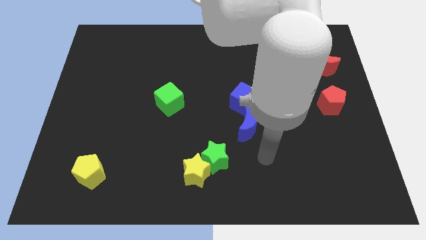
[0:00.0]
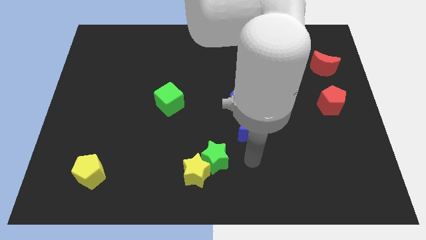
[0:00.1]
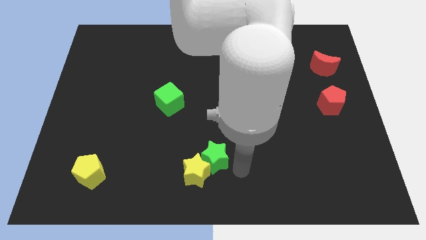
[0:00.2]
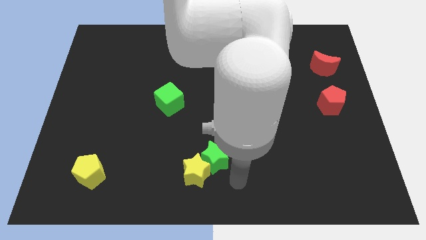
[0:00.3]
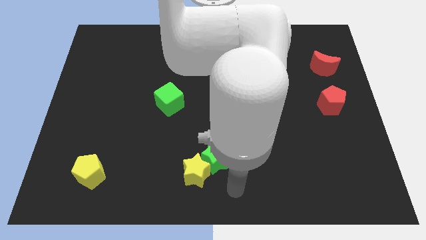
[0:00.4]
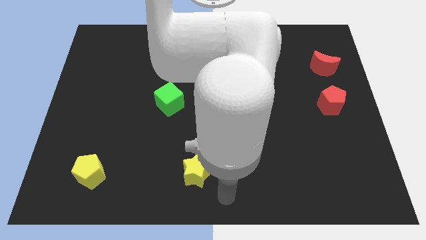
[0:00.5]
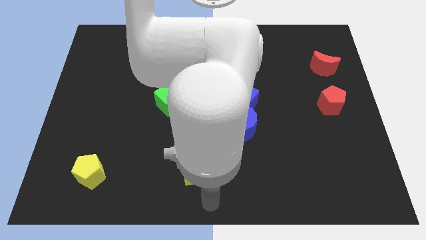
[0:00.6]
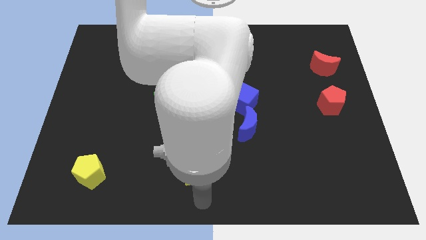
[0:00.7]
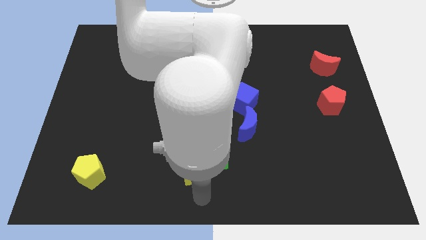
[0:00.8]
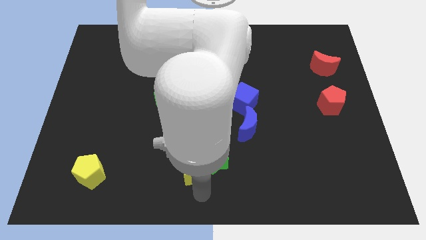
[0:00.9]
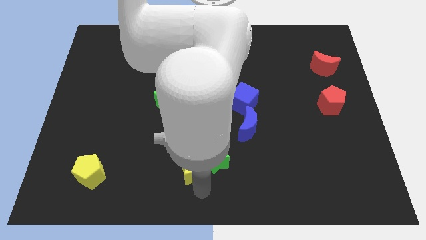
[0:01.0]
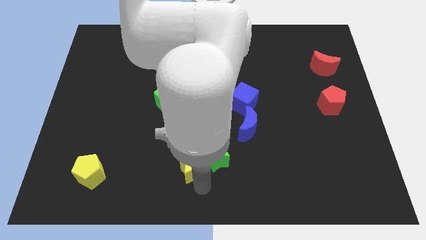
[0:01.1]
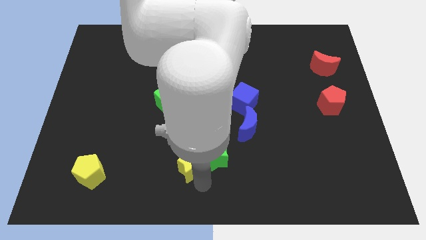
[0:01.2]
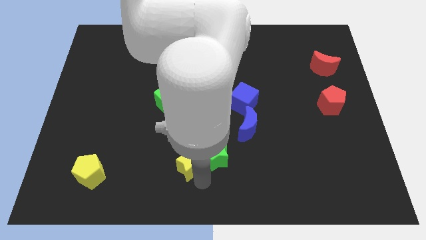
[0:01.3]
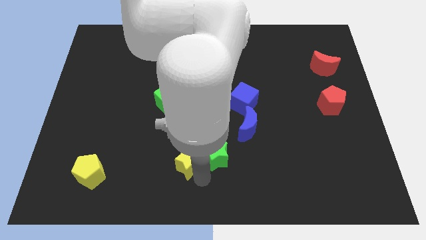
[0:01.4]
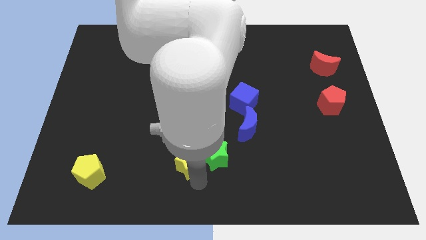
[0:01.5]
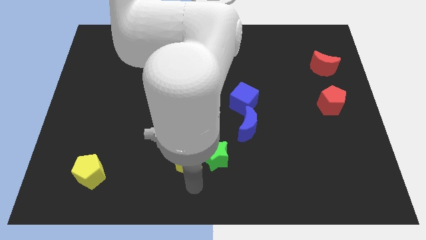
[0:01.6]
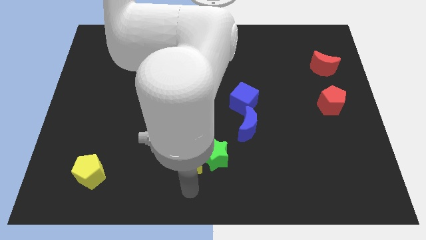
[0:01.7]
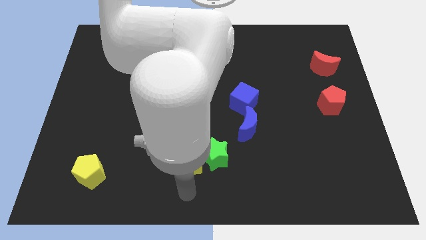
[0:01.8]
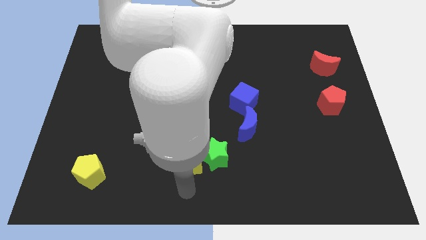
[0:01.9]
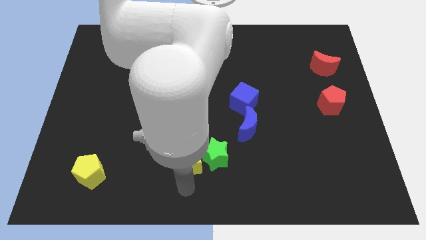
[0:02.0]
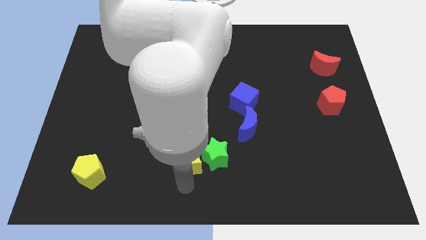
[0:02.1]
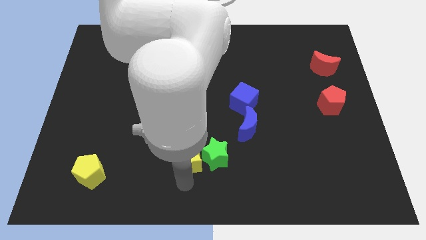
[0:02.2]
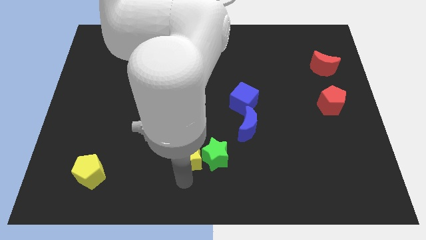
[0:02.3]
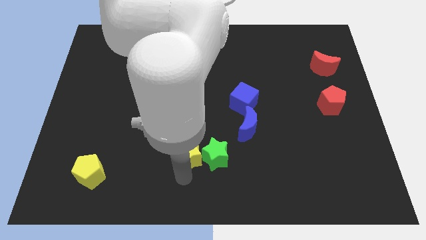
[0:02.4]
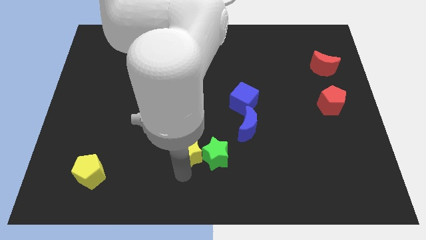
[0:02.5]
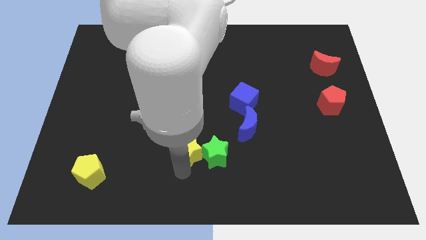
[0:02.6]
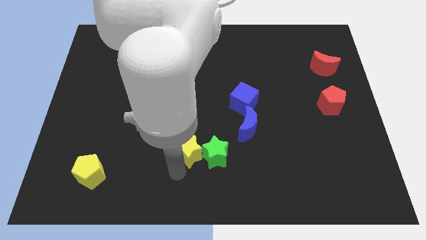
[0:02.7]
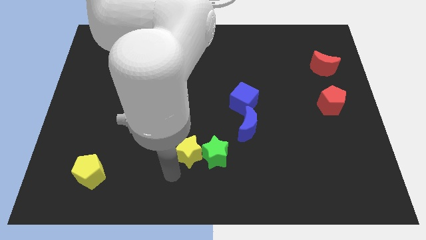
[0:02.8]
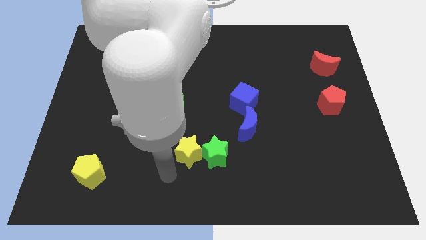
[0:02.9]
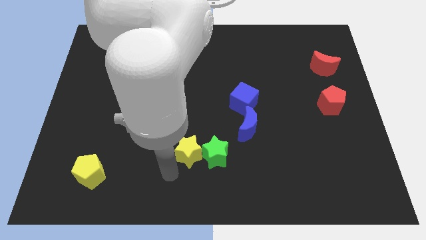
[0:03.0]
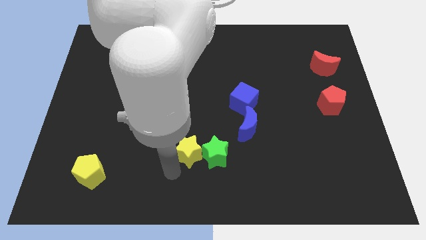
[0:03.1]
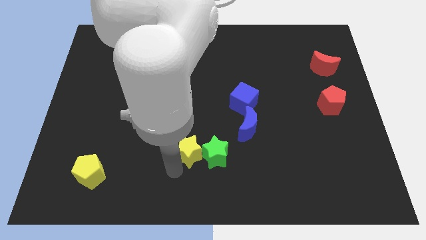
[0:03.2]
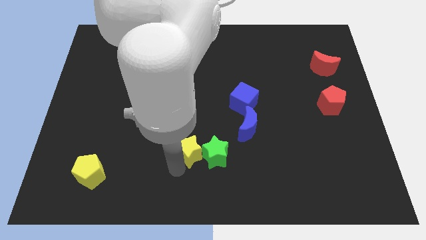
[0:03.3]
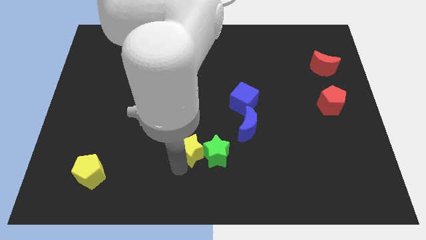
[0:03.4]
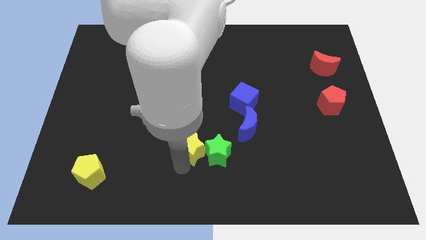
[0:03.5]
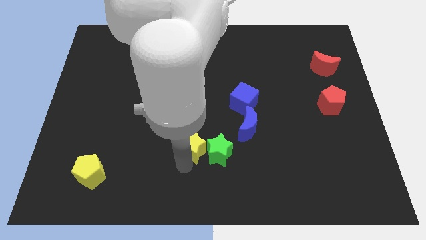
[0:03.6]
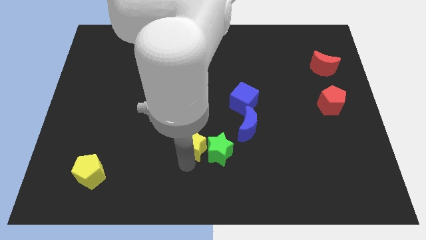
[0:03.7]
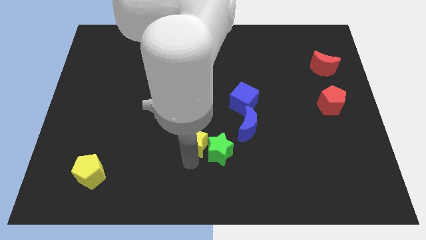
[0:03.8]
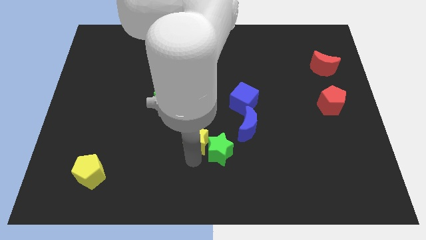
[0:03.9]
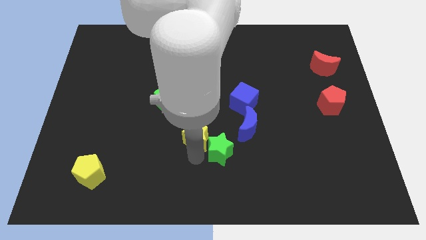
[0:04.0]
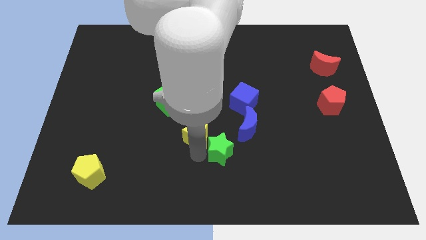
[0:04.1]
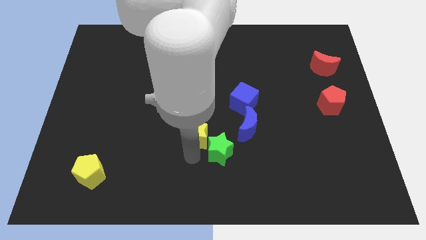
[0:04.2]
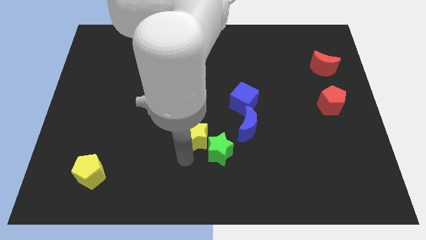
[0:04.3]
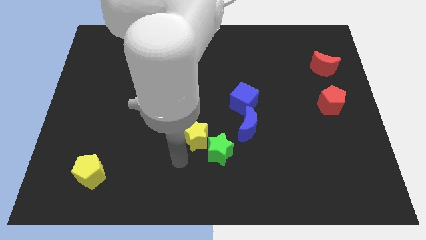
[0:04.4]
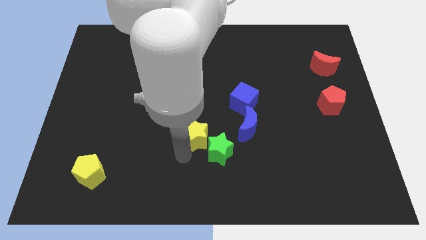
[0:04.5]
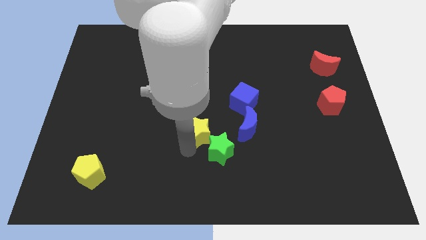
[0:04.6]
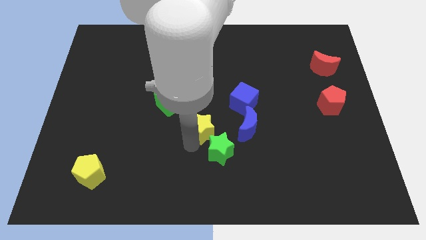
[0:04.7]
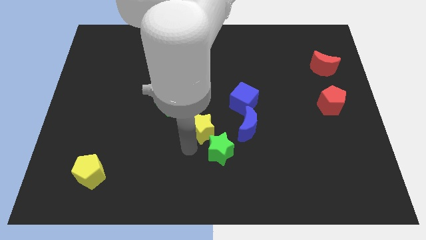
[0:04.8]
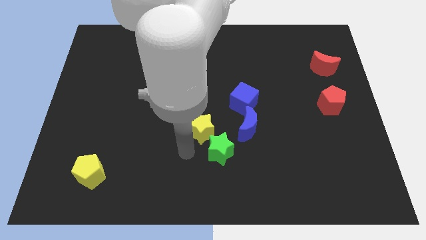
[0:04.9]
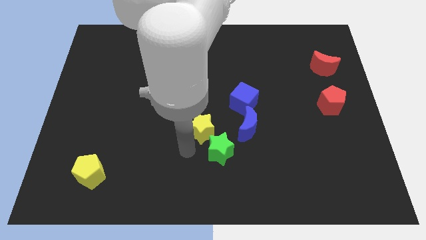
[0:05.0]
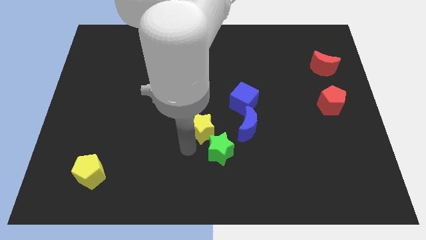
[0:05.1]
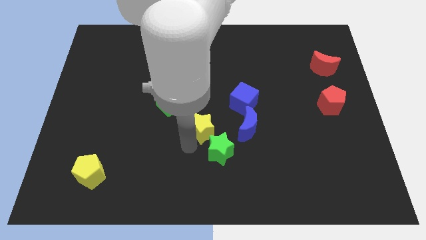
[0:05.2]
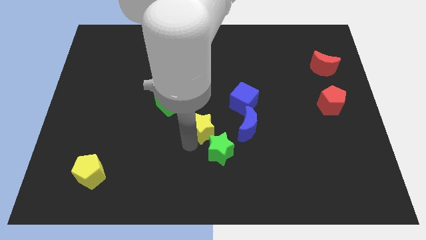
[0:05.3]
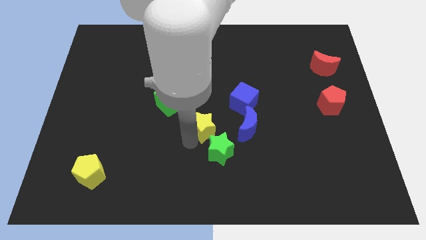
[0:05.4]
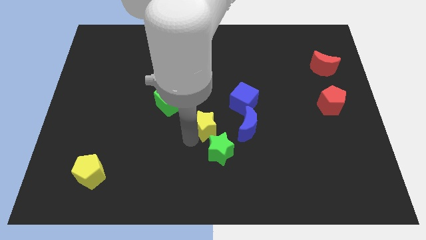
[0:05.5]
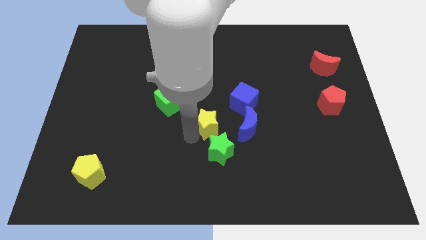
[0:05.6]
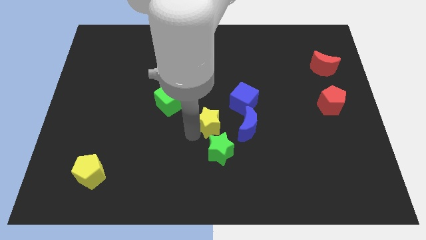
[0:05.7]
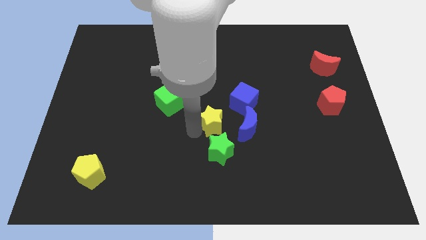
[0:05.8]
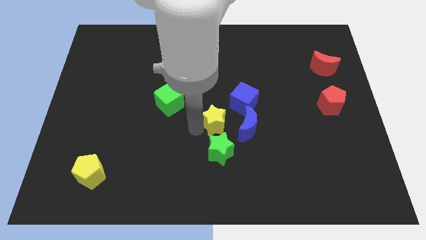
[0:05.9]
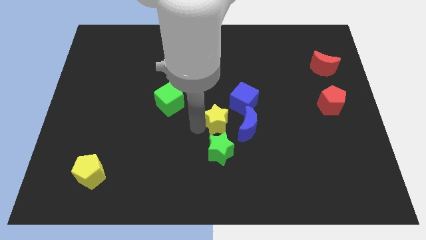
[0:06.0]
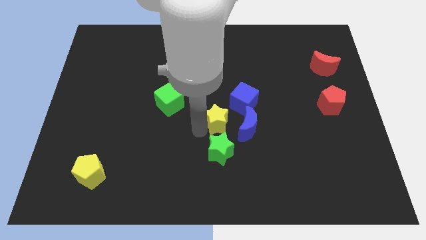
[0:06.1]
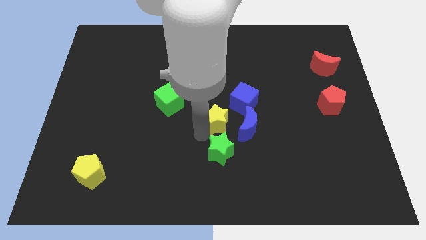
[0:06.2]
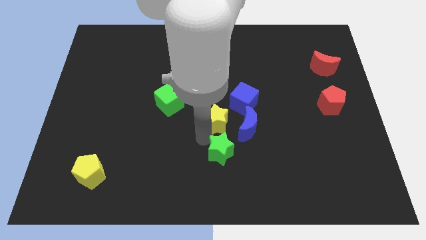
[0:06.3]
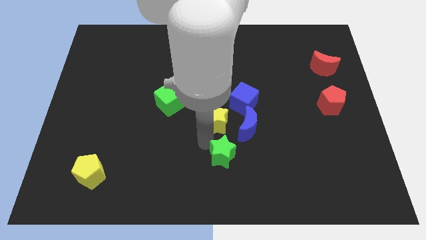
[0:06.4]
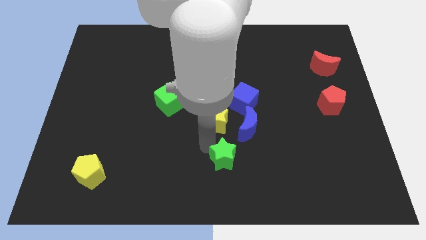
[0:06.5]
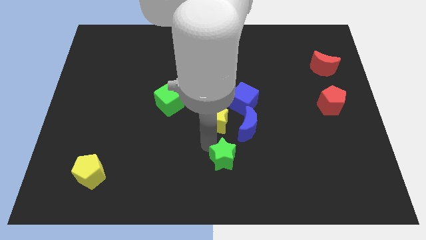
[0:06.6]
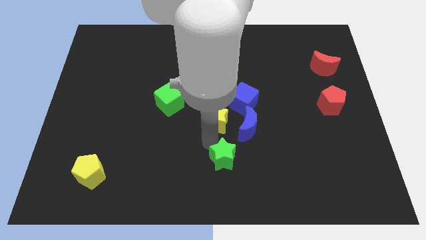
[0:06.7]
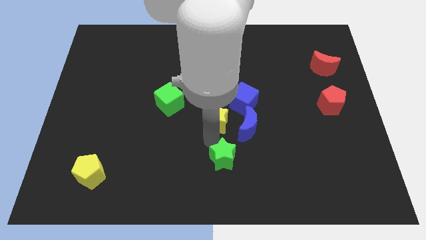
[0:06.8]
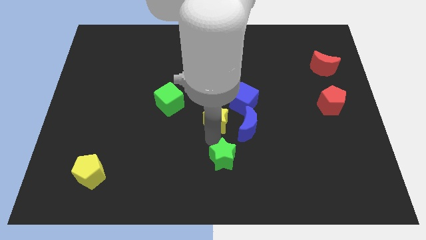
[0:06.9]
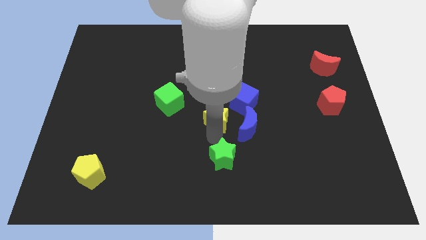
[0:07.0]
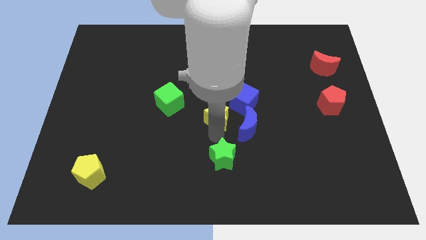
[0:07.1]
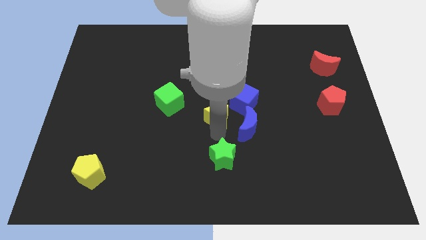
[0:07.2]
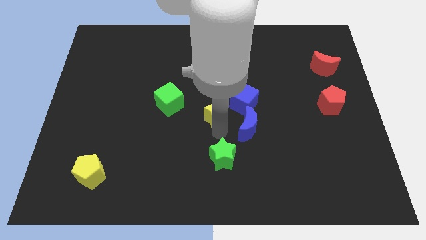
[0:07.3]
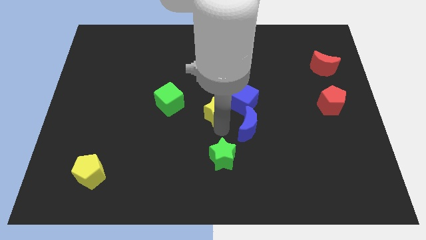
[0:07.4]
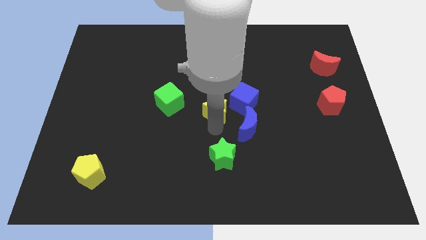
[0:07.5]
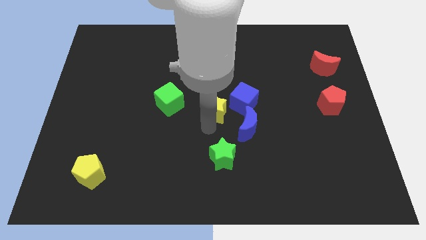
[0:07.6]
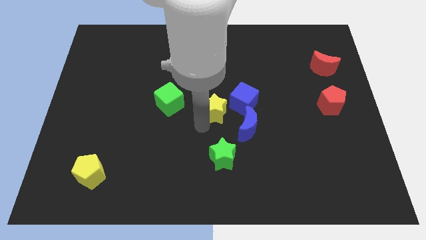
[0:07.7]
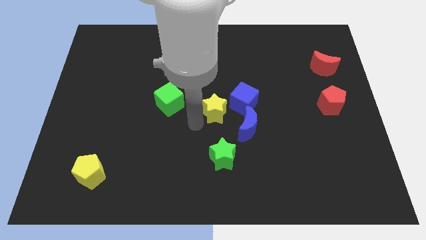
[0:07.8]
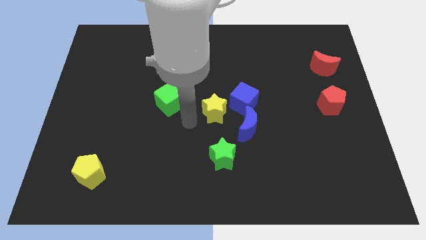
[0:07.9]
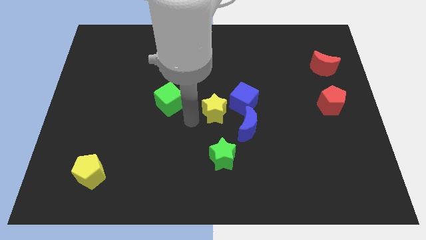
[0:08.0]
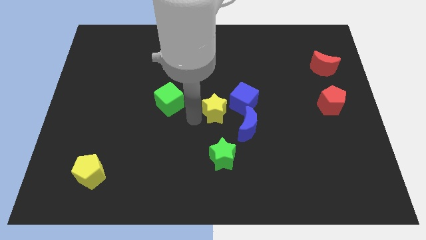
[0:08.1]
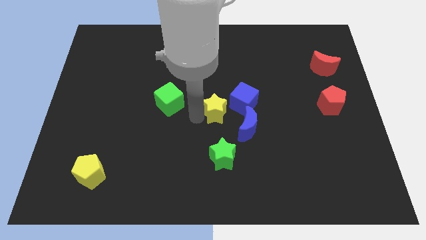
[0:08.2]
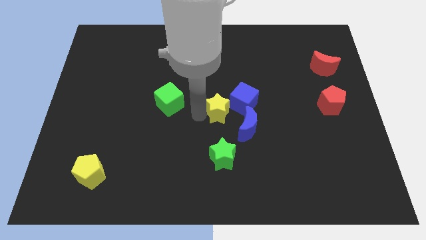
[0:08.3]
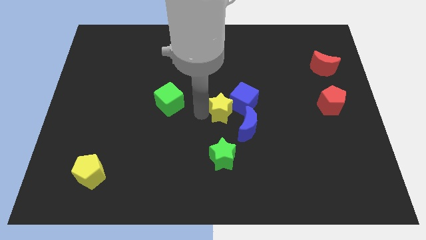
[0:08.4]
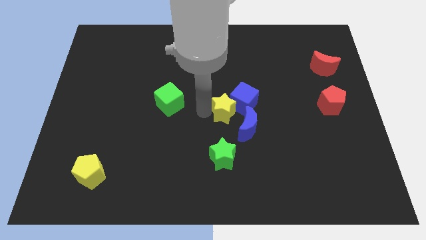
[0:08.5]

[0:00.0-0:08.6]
put the yellow star close to the blue cube
